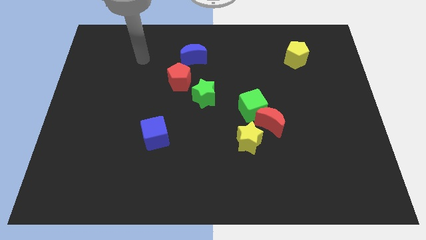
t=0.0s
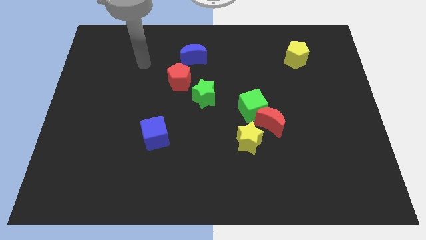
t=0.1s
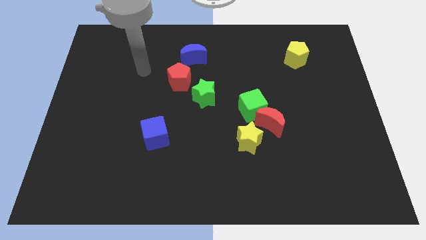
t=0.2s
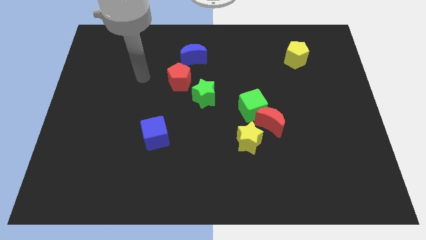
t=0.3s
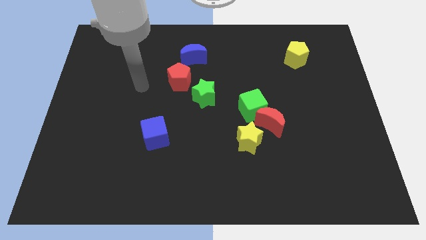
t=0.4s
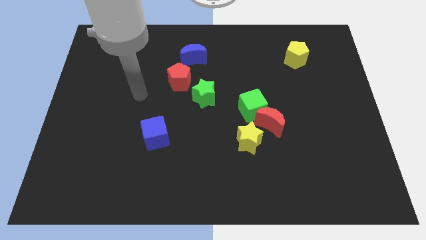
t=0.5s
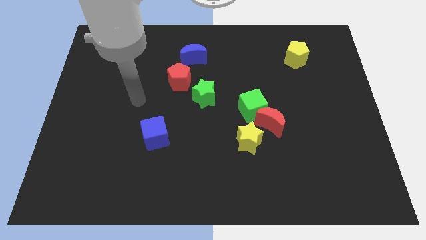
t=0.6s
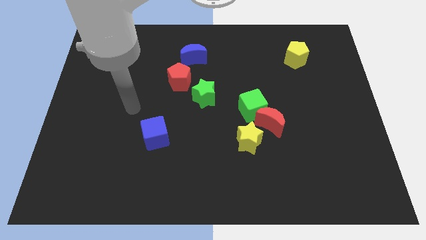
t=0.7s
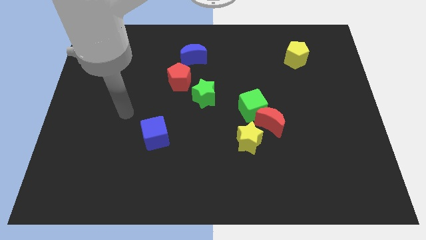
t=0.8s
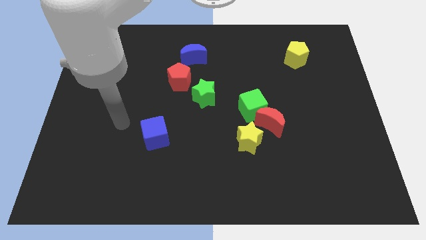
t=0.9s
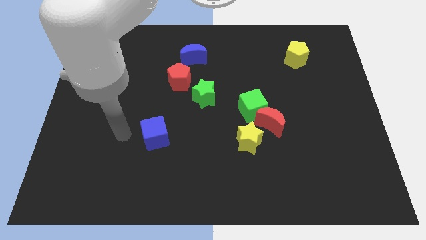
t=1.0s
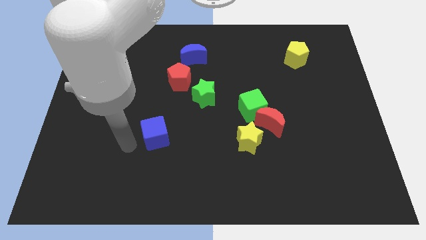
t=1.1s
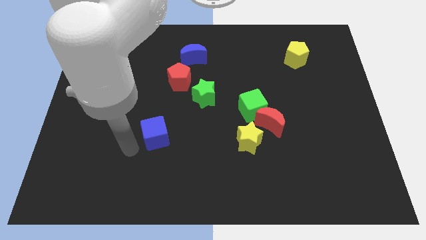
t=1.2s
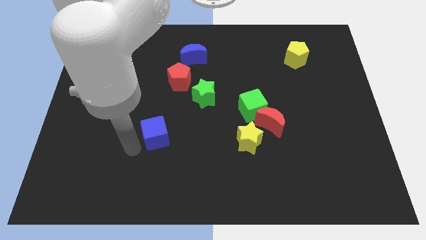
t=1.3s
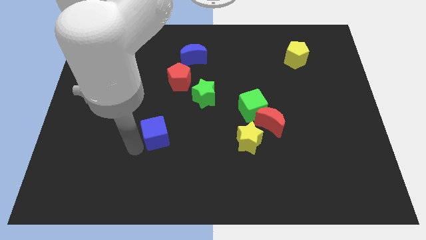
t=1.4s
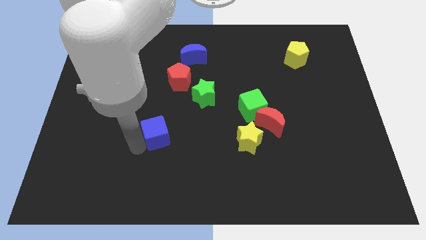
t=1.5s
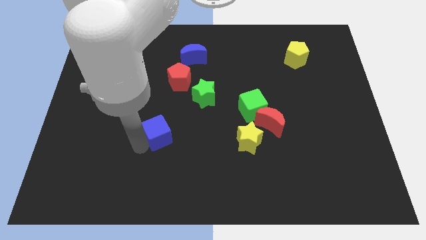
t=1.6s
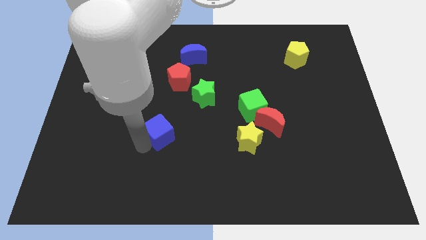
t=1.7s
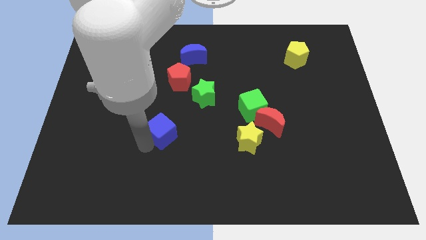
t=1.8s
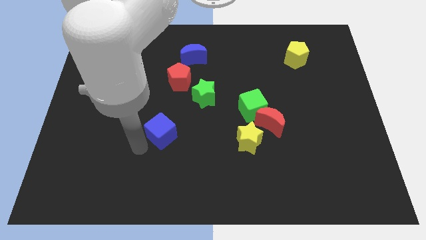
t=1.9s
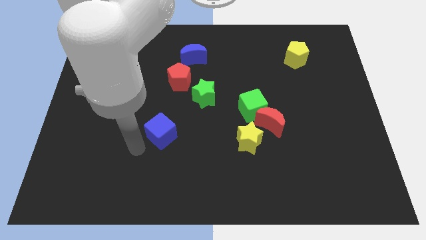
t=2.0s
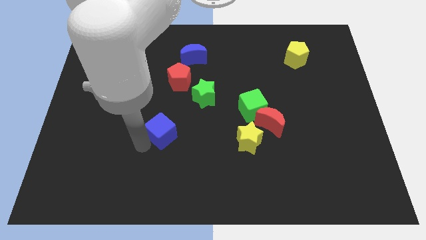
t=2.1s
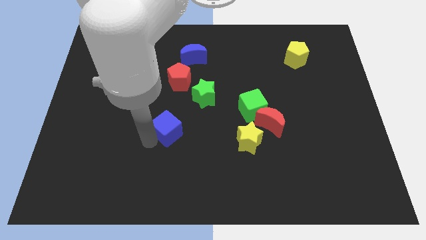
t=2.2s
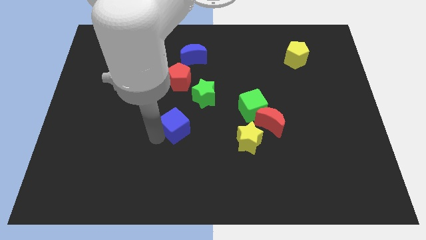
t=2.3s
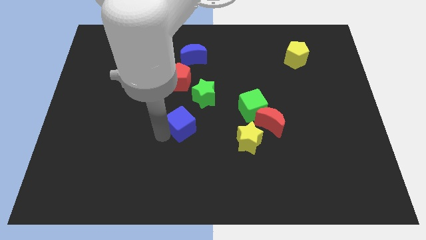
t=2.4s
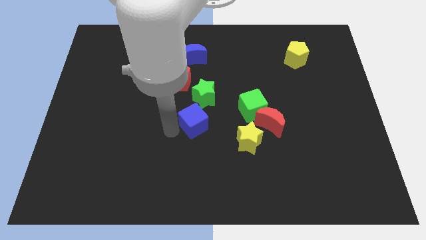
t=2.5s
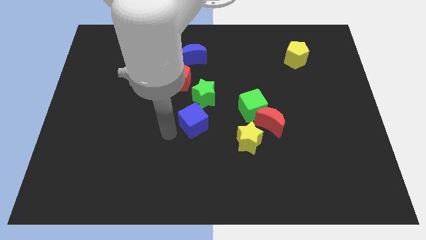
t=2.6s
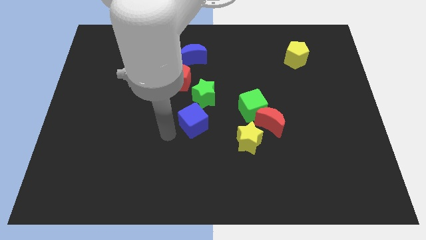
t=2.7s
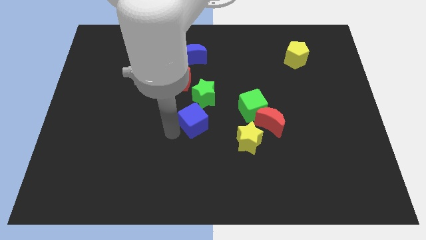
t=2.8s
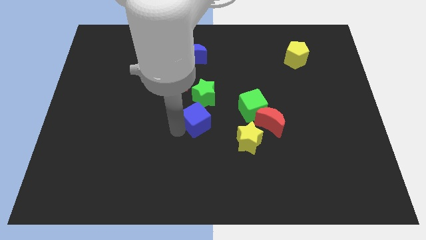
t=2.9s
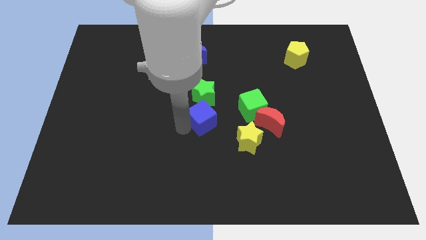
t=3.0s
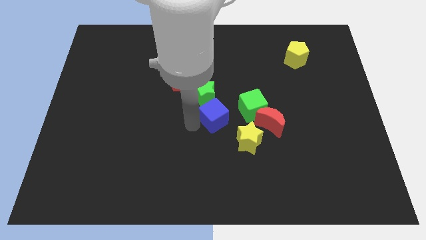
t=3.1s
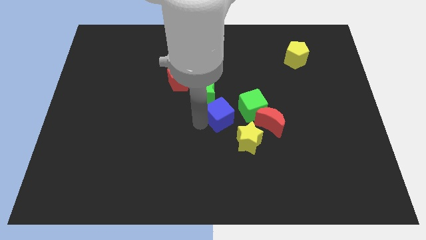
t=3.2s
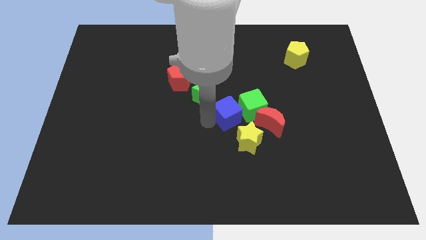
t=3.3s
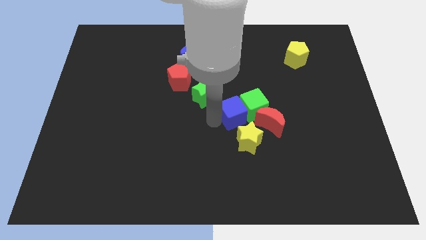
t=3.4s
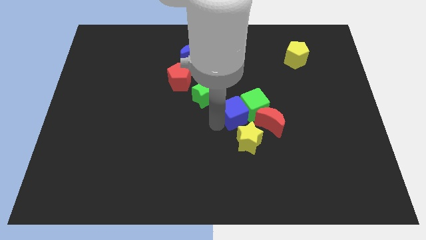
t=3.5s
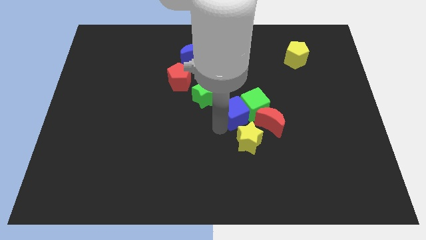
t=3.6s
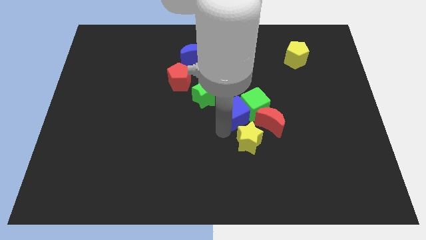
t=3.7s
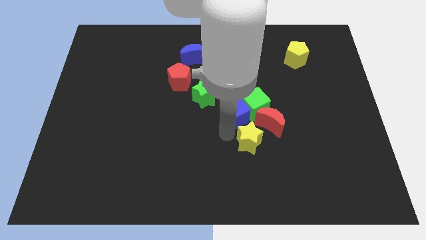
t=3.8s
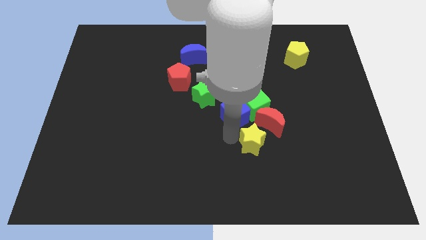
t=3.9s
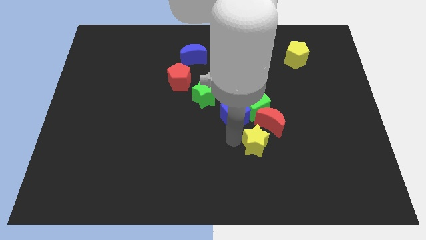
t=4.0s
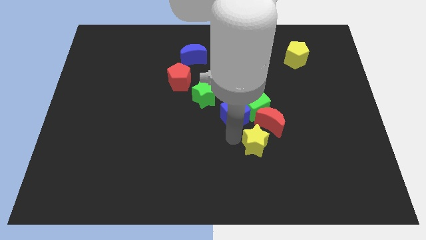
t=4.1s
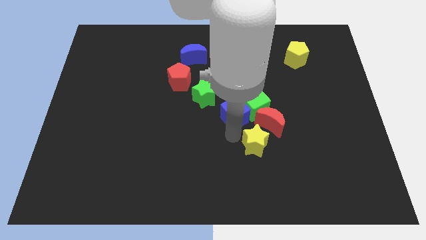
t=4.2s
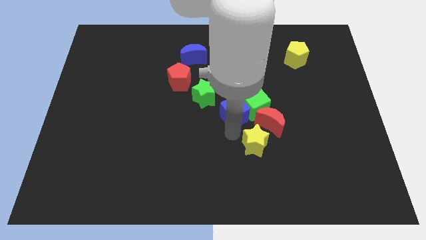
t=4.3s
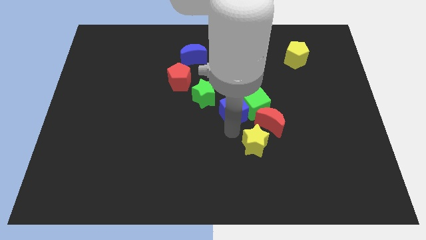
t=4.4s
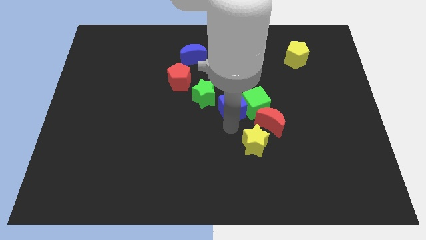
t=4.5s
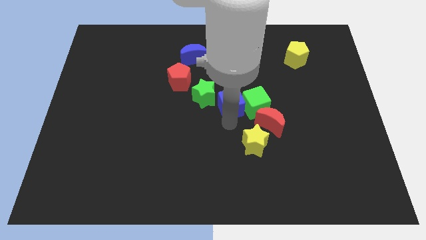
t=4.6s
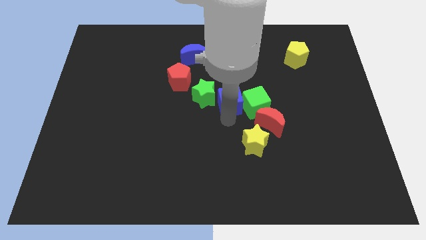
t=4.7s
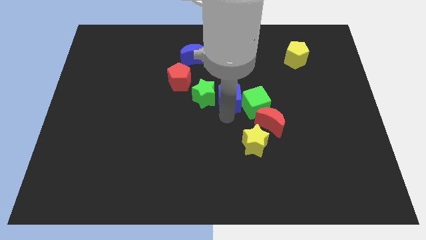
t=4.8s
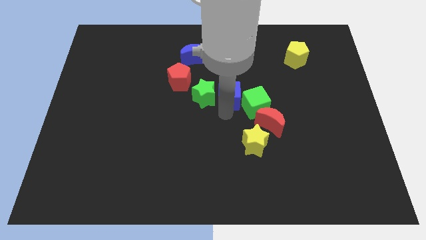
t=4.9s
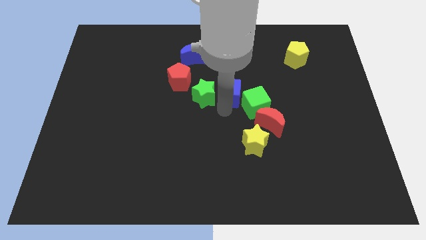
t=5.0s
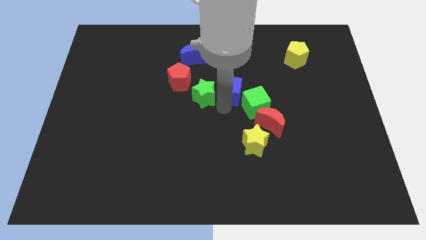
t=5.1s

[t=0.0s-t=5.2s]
slide the blue cube diagonally upwards and to the right

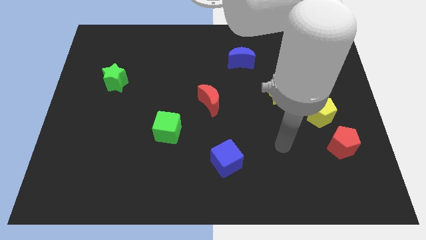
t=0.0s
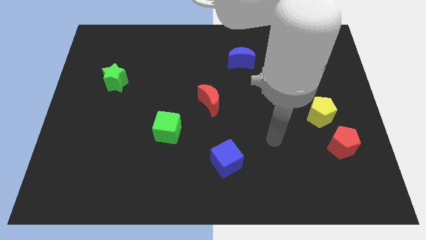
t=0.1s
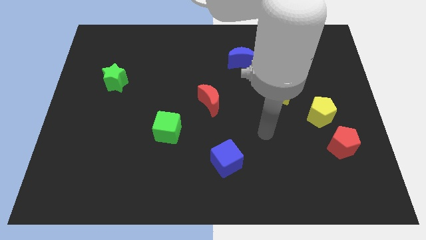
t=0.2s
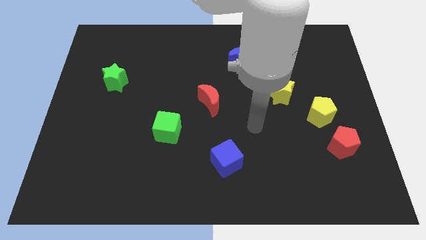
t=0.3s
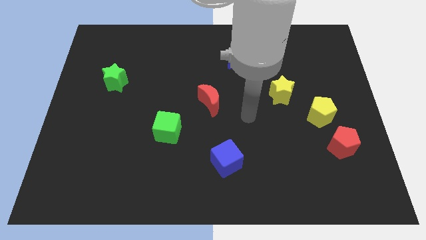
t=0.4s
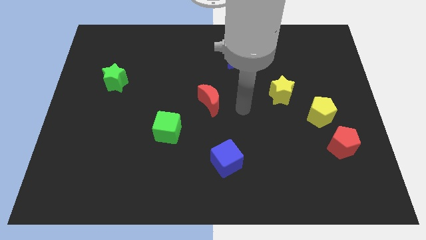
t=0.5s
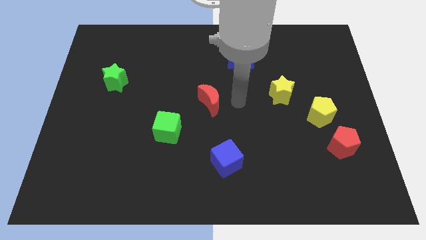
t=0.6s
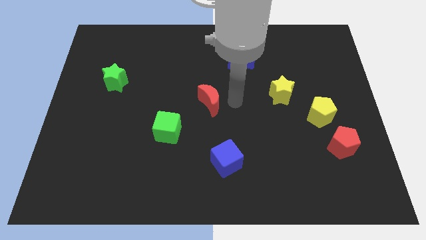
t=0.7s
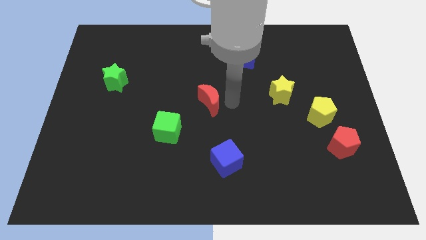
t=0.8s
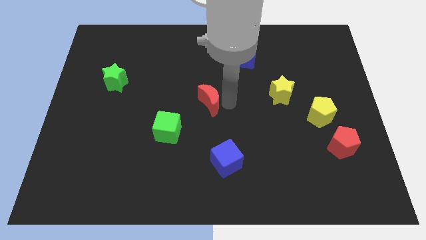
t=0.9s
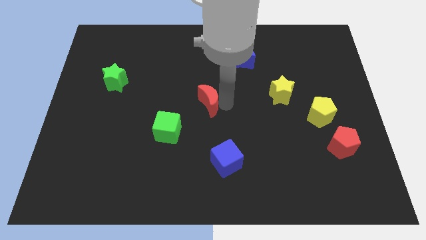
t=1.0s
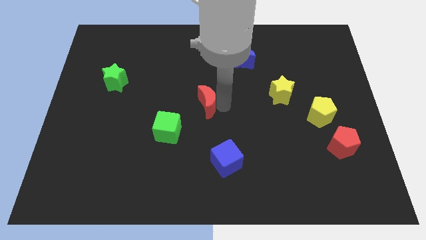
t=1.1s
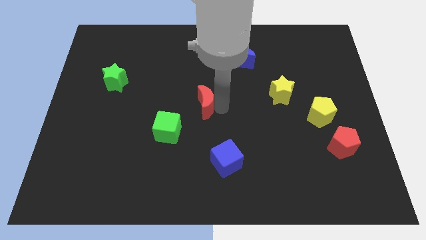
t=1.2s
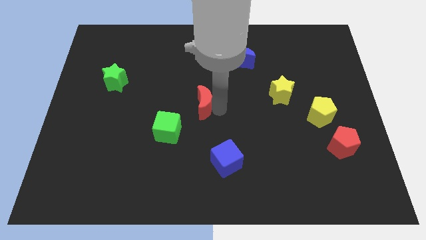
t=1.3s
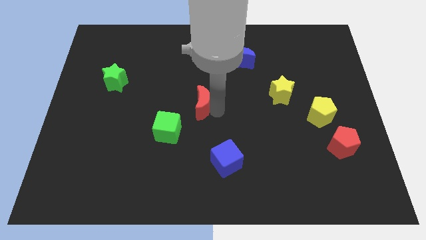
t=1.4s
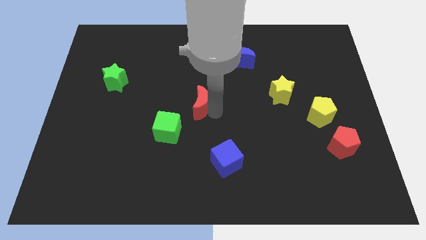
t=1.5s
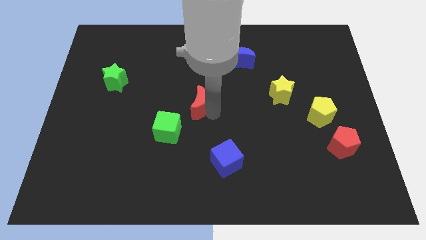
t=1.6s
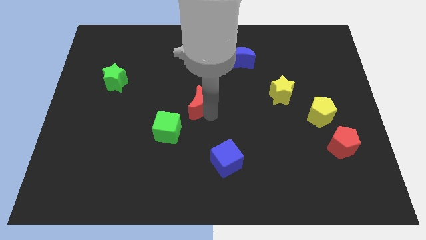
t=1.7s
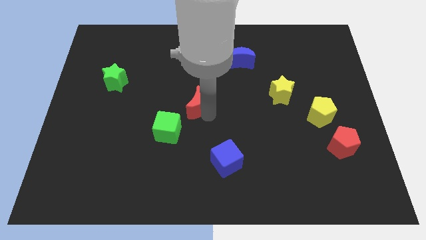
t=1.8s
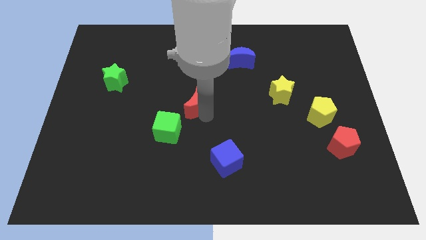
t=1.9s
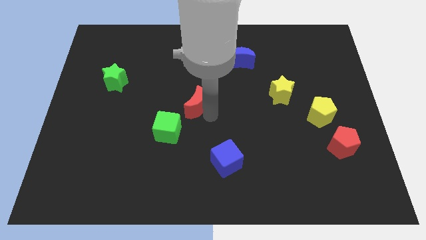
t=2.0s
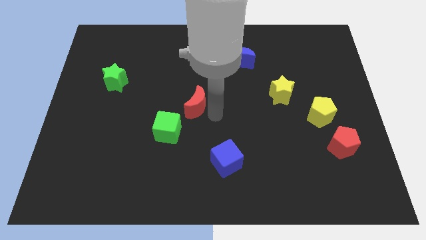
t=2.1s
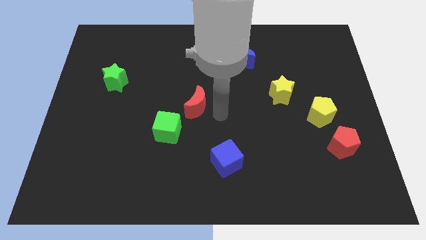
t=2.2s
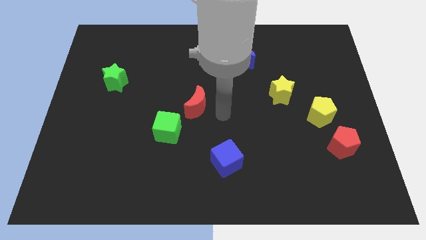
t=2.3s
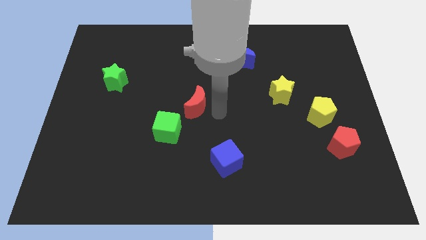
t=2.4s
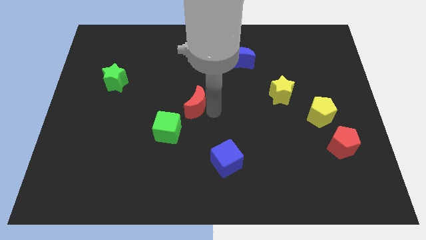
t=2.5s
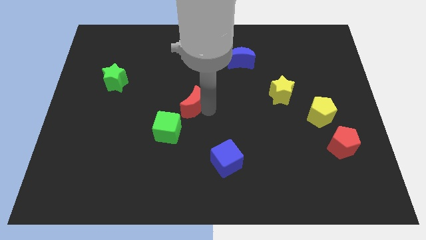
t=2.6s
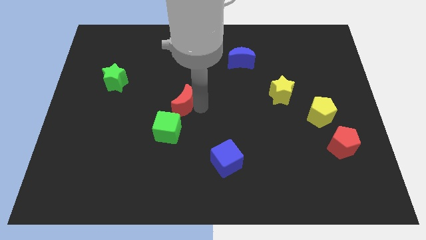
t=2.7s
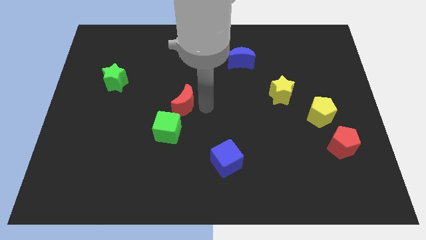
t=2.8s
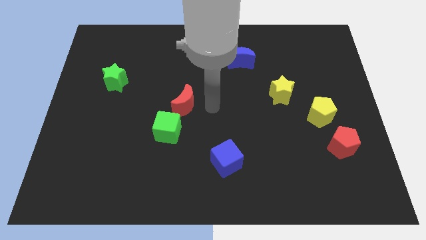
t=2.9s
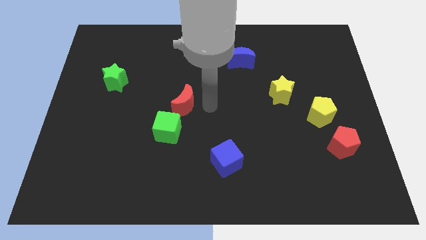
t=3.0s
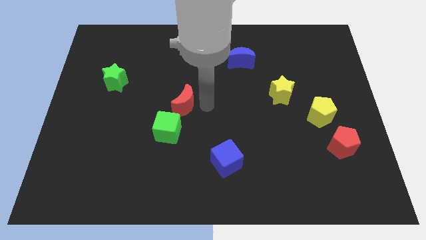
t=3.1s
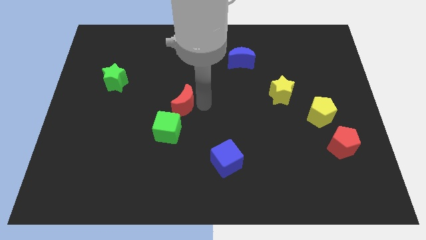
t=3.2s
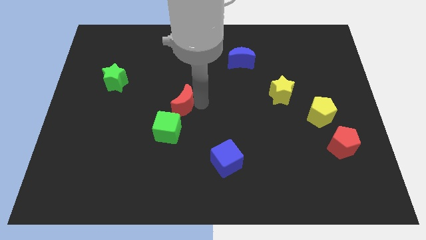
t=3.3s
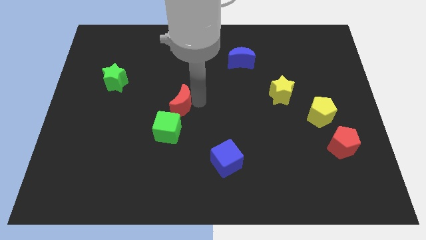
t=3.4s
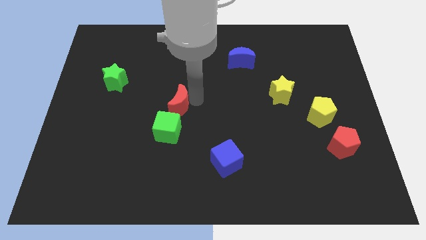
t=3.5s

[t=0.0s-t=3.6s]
slightly move the red moon left
